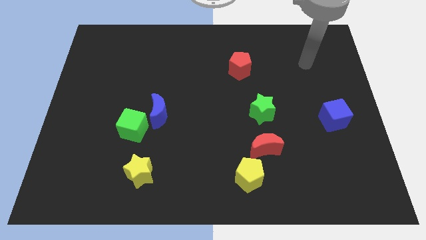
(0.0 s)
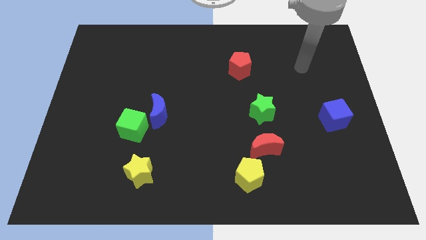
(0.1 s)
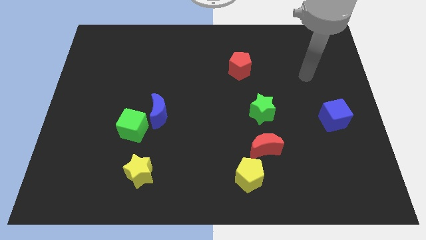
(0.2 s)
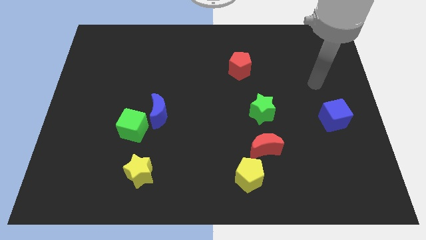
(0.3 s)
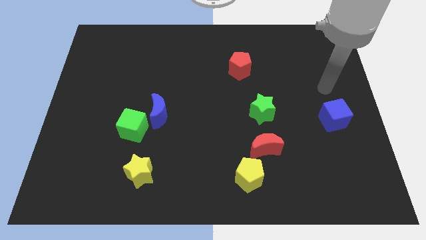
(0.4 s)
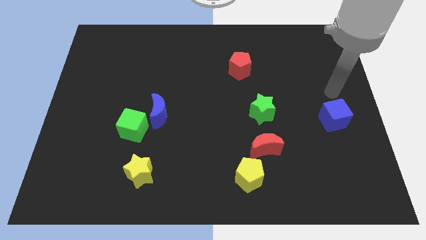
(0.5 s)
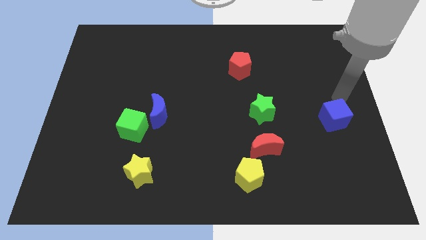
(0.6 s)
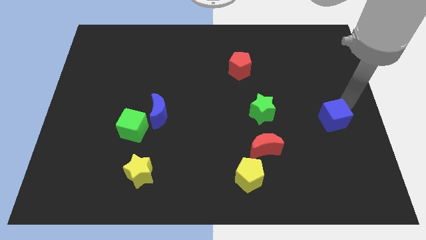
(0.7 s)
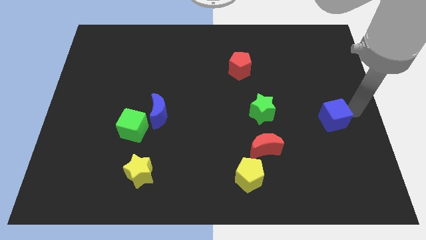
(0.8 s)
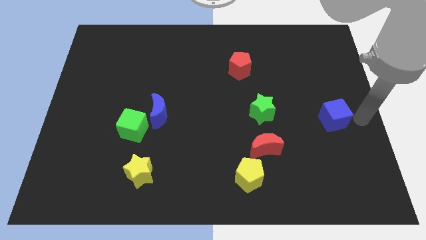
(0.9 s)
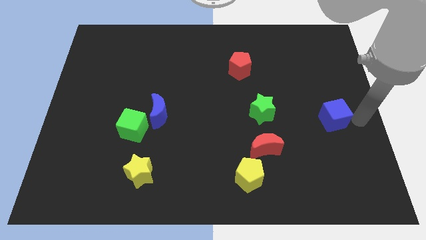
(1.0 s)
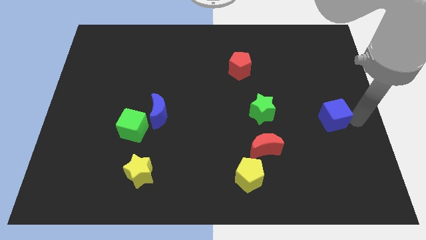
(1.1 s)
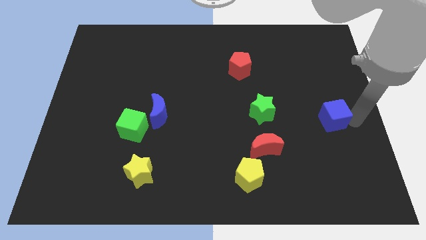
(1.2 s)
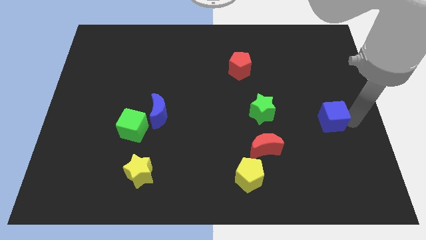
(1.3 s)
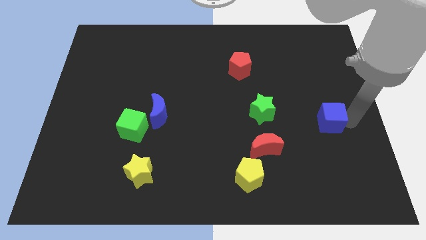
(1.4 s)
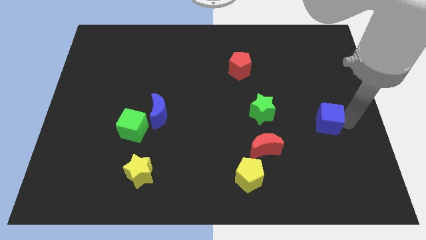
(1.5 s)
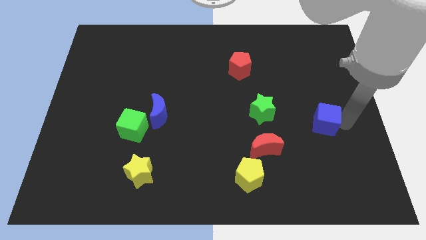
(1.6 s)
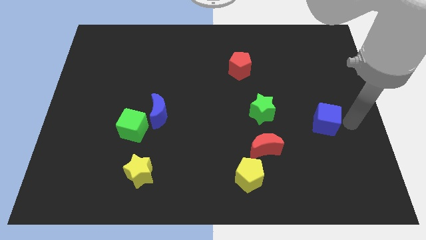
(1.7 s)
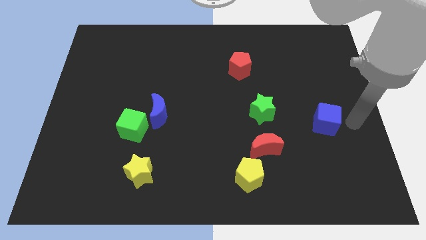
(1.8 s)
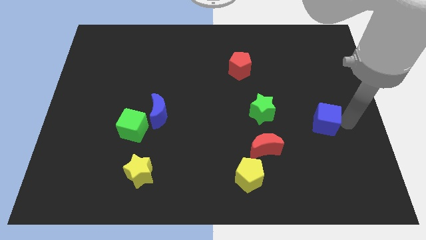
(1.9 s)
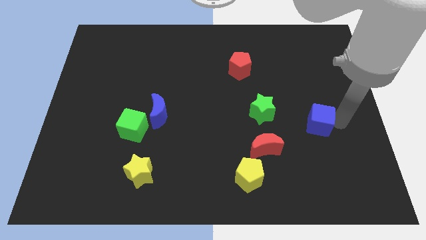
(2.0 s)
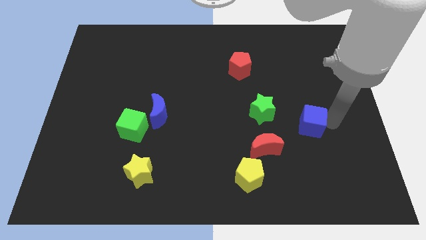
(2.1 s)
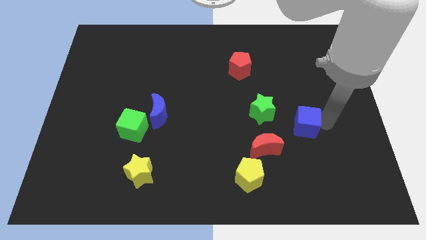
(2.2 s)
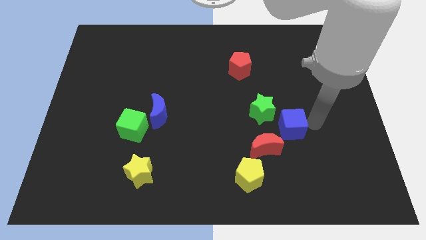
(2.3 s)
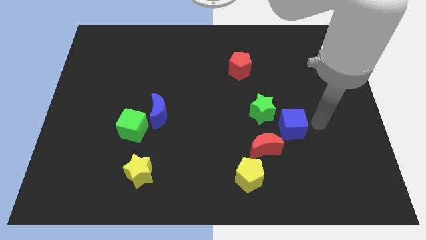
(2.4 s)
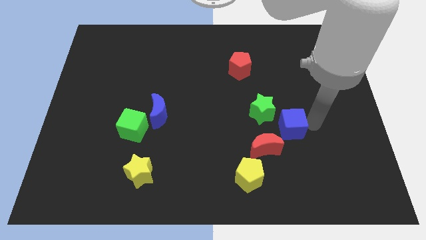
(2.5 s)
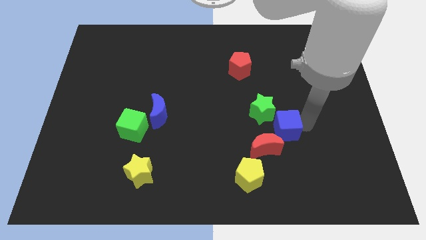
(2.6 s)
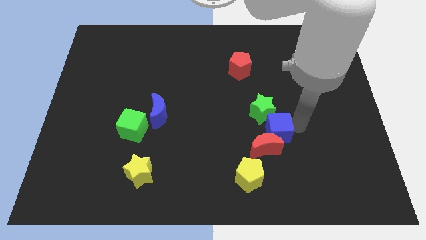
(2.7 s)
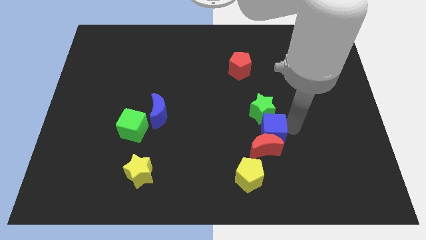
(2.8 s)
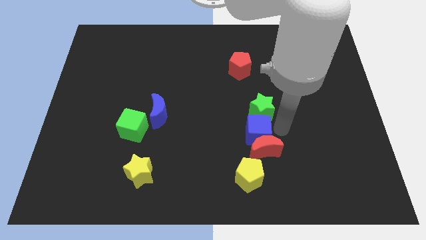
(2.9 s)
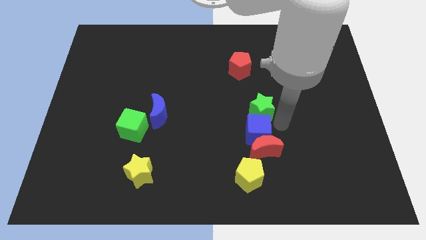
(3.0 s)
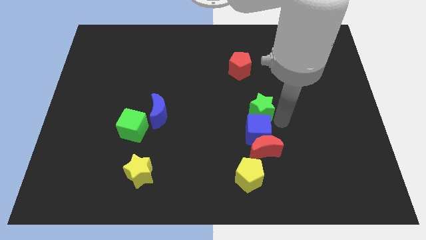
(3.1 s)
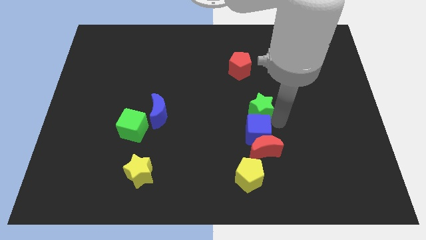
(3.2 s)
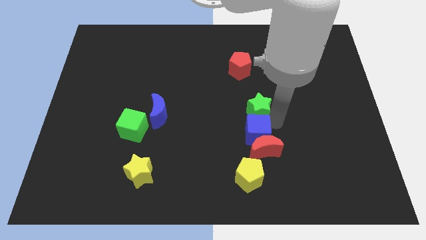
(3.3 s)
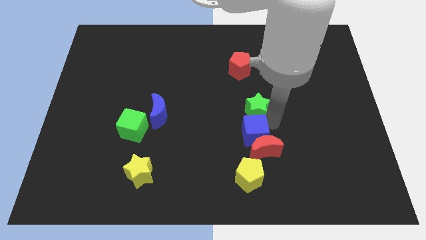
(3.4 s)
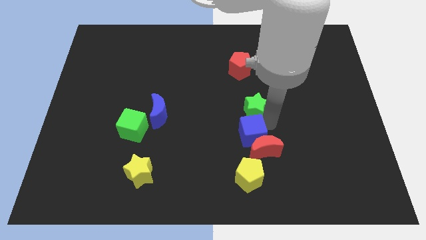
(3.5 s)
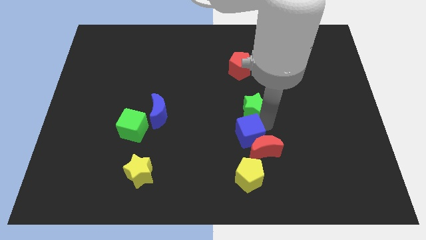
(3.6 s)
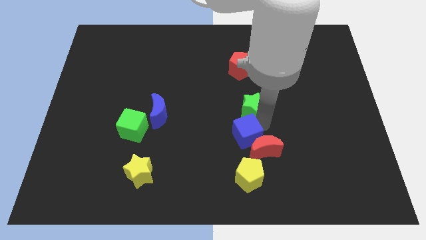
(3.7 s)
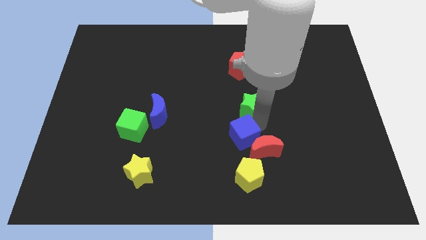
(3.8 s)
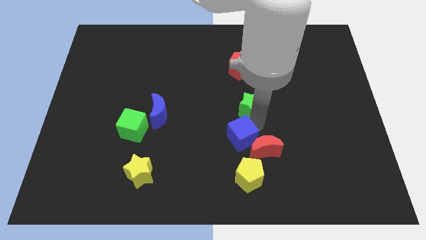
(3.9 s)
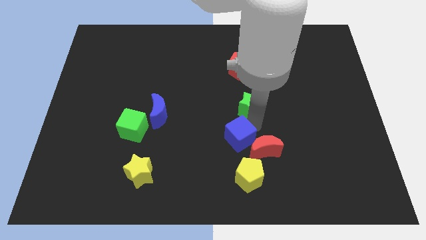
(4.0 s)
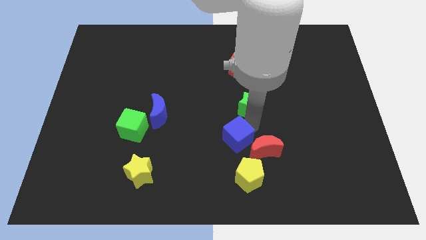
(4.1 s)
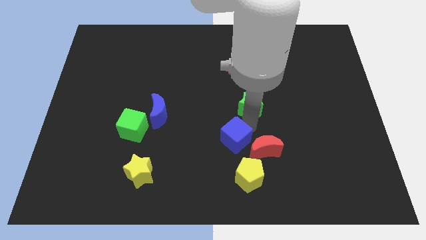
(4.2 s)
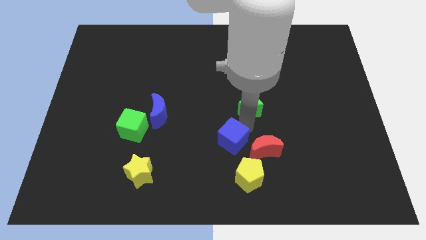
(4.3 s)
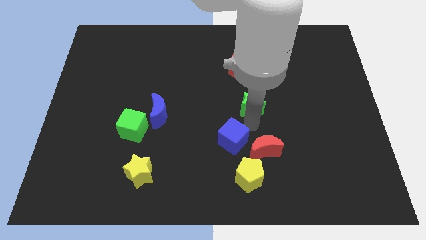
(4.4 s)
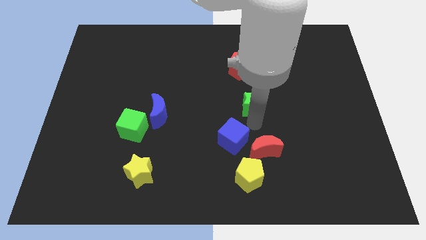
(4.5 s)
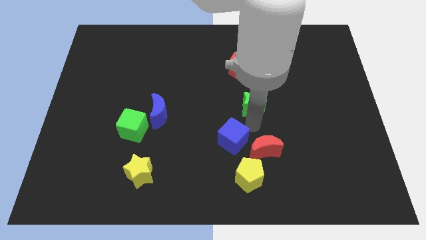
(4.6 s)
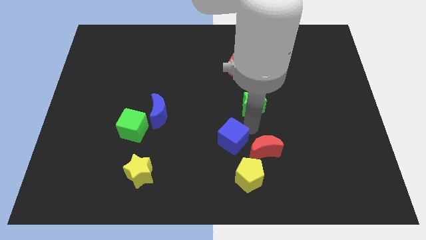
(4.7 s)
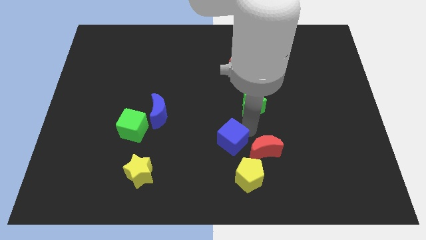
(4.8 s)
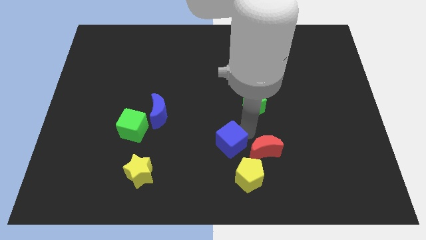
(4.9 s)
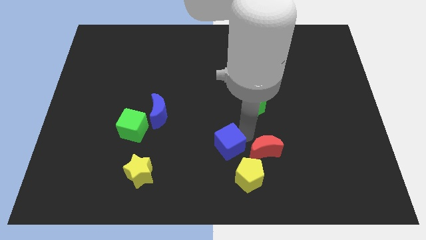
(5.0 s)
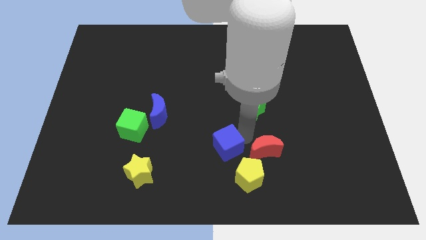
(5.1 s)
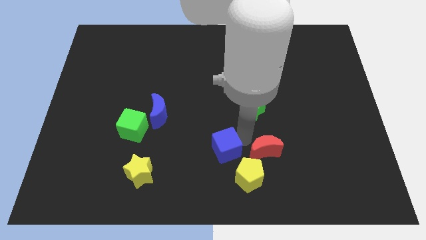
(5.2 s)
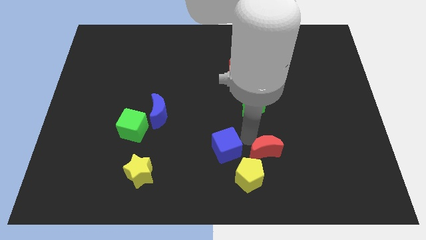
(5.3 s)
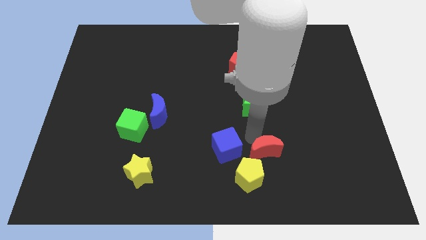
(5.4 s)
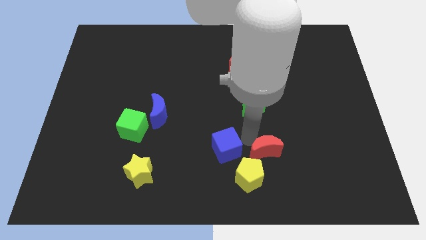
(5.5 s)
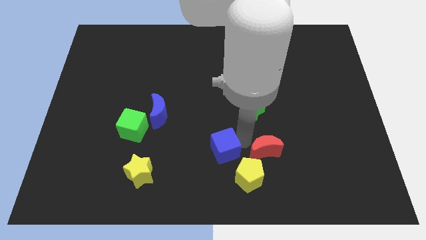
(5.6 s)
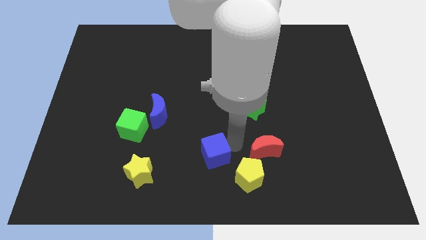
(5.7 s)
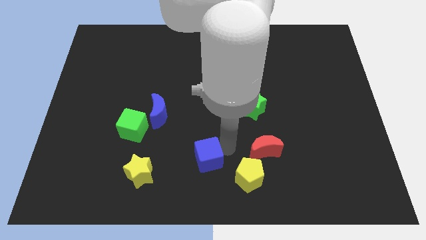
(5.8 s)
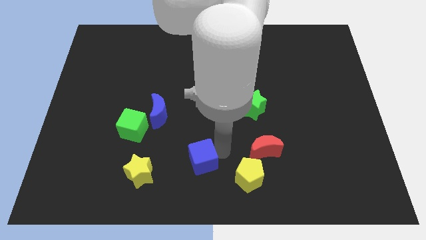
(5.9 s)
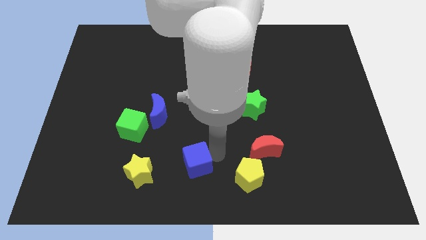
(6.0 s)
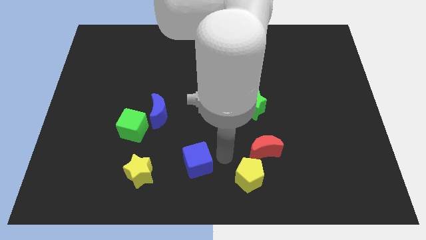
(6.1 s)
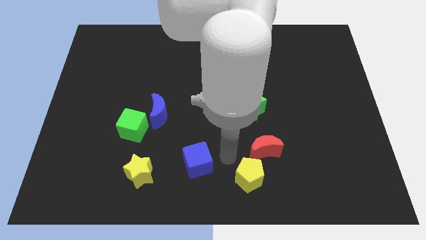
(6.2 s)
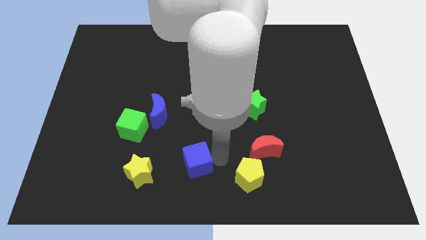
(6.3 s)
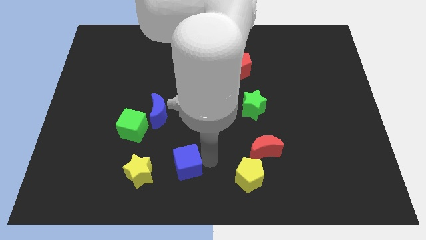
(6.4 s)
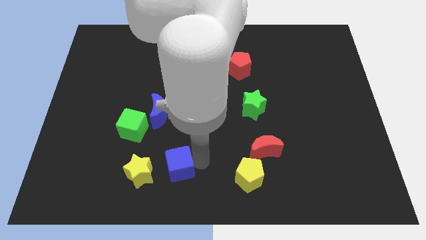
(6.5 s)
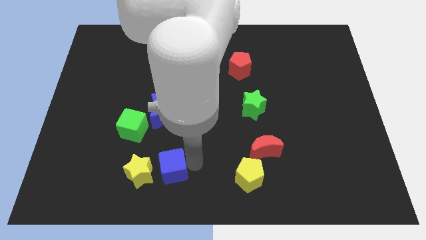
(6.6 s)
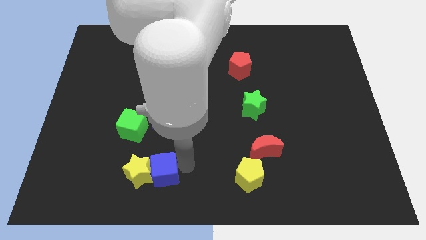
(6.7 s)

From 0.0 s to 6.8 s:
slide the blue cube next to the yellow star
